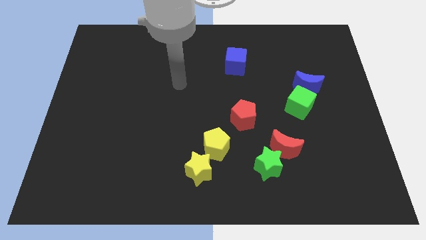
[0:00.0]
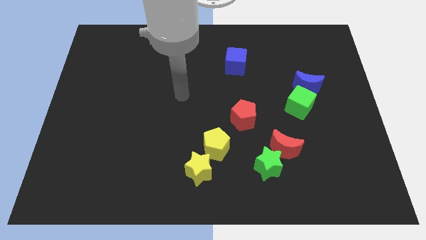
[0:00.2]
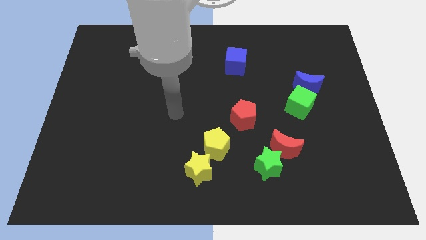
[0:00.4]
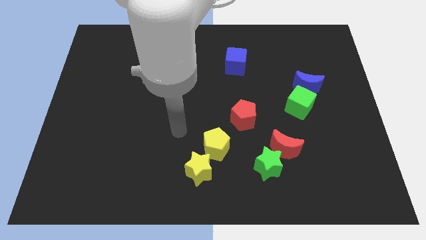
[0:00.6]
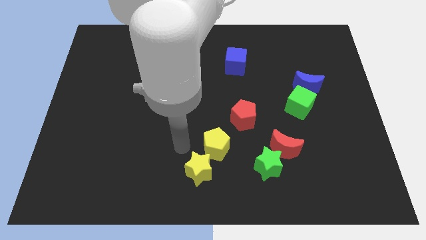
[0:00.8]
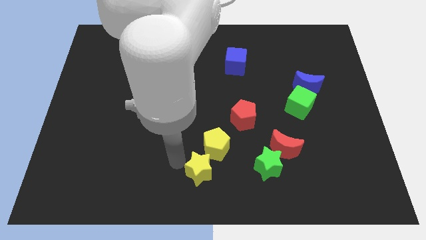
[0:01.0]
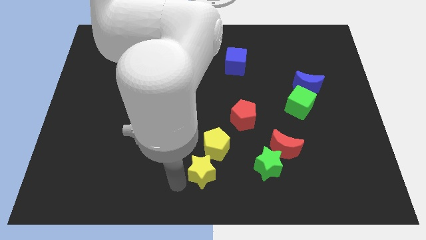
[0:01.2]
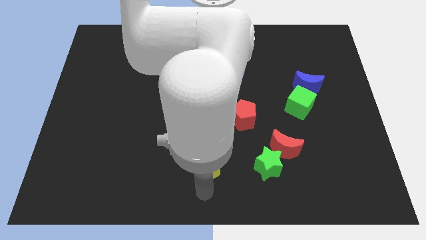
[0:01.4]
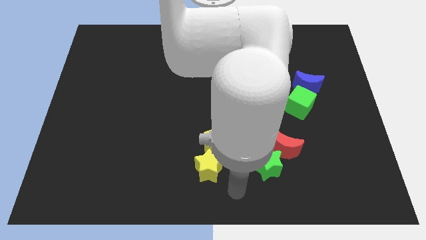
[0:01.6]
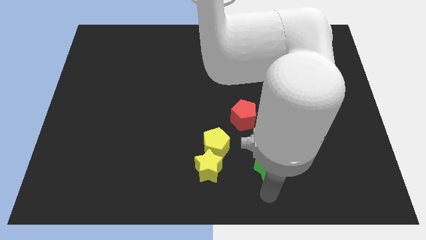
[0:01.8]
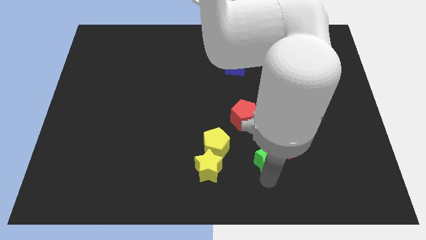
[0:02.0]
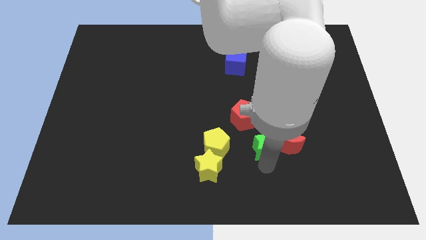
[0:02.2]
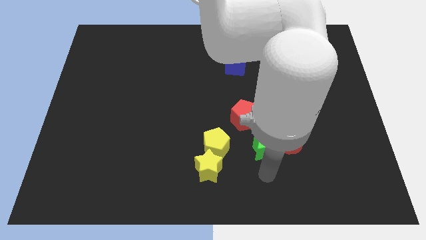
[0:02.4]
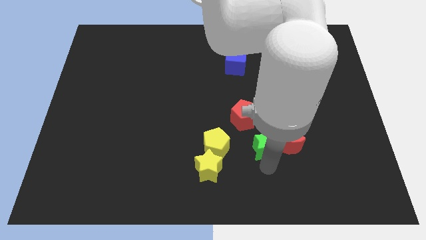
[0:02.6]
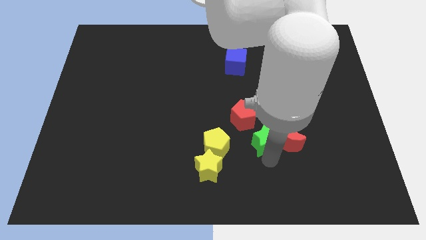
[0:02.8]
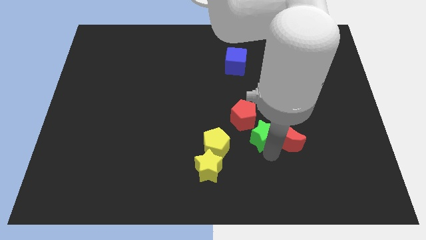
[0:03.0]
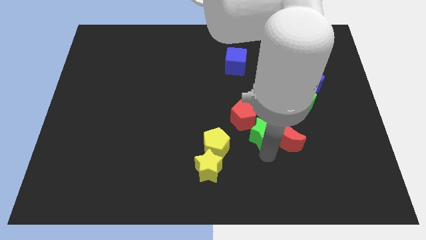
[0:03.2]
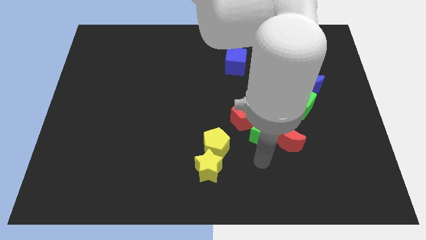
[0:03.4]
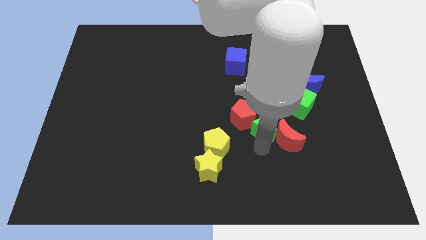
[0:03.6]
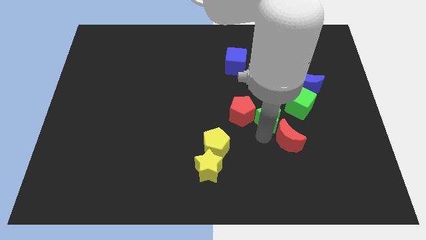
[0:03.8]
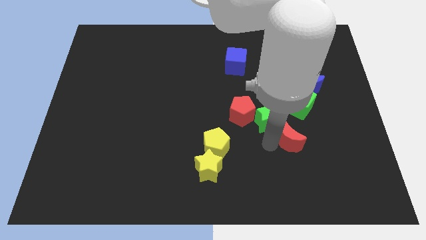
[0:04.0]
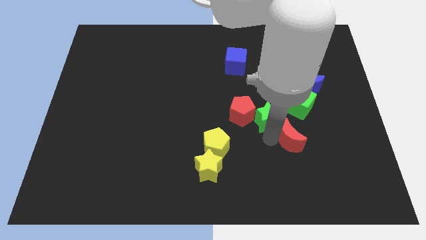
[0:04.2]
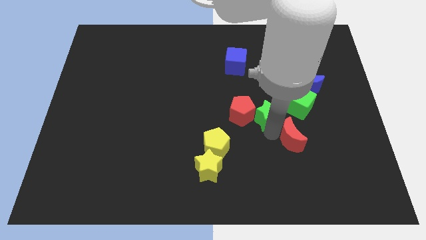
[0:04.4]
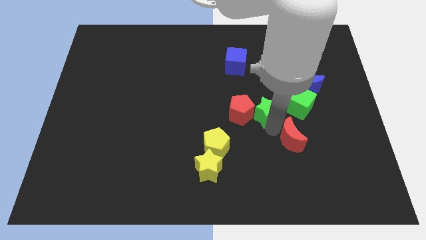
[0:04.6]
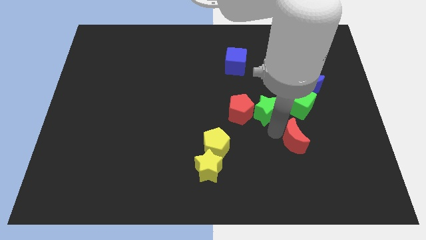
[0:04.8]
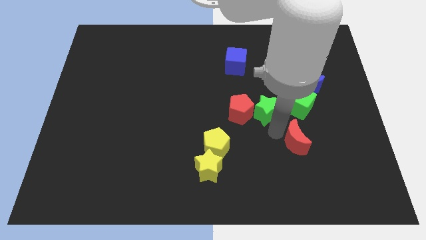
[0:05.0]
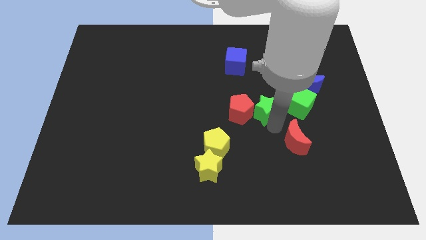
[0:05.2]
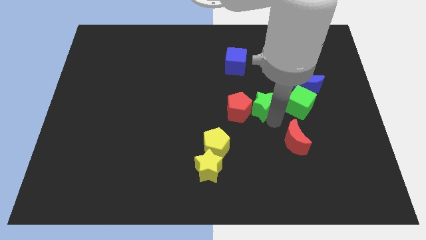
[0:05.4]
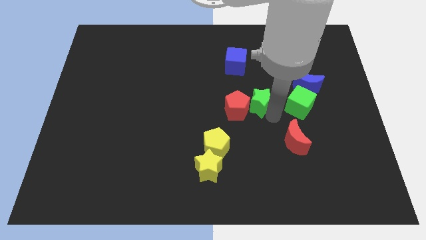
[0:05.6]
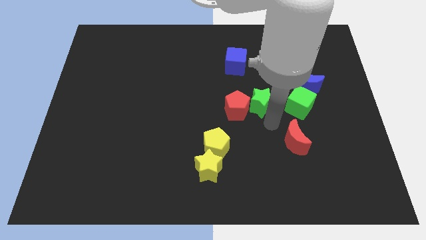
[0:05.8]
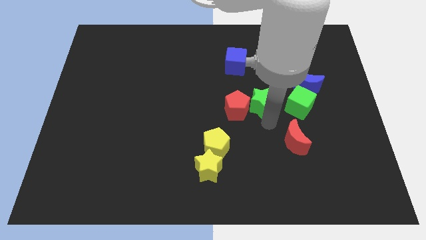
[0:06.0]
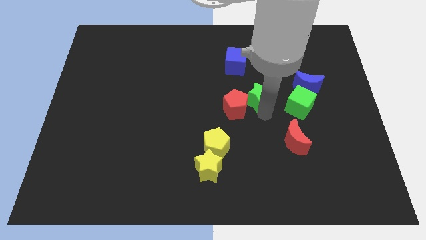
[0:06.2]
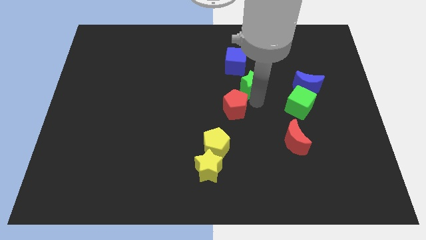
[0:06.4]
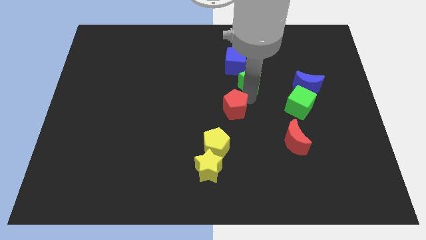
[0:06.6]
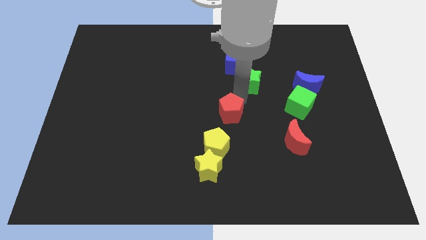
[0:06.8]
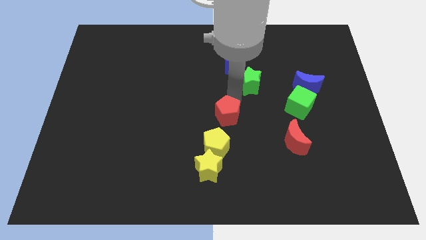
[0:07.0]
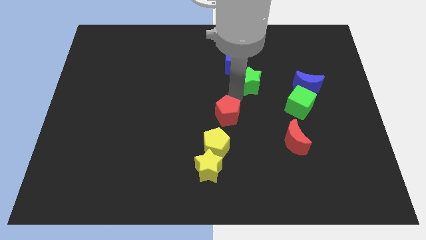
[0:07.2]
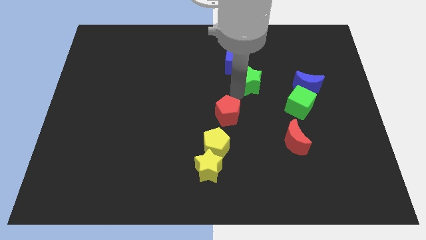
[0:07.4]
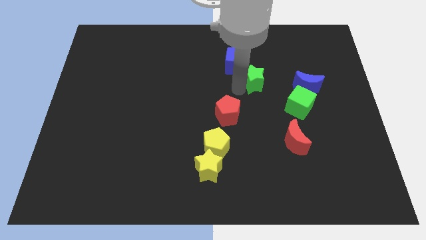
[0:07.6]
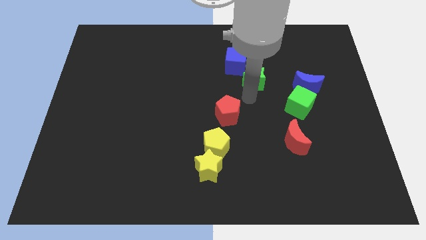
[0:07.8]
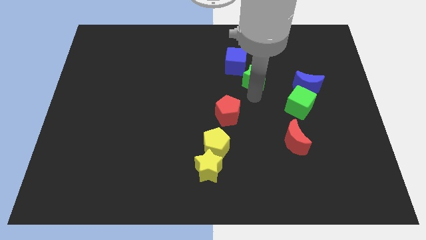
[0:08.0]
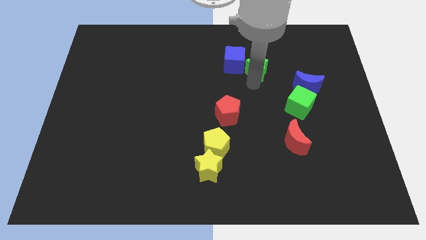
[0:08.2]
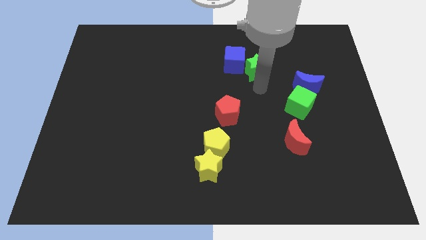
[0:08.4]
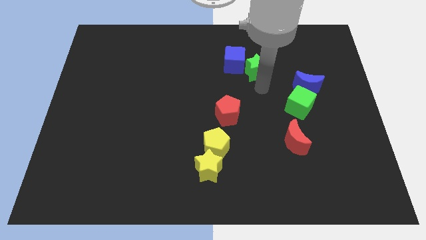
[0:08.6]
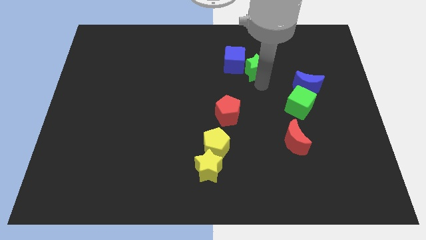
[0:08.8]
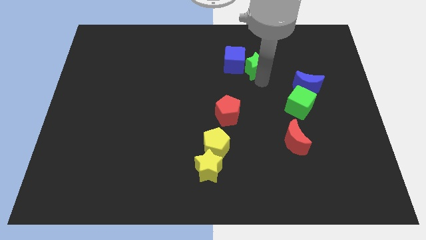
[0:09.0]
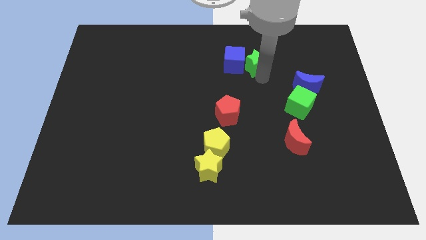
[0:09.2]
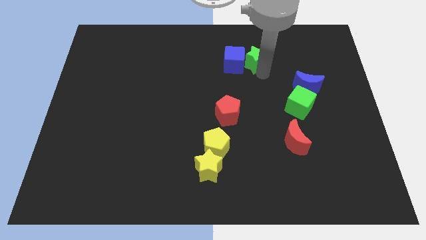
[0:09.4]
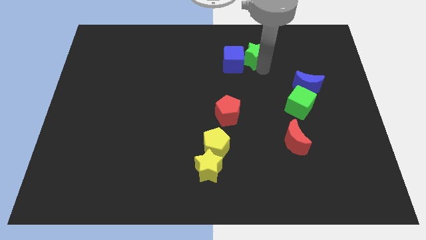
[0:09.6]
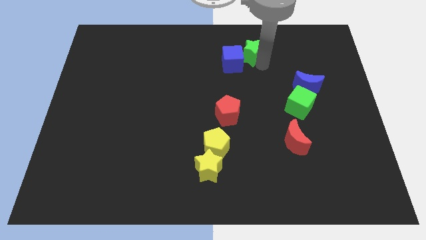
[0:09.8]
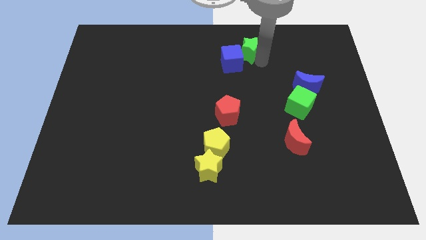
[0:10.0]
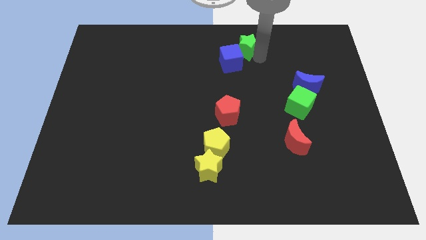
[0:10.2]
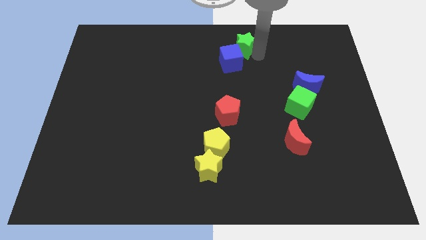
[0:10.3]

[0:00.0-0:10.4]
push the green star to the top side

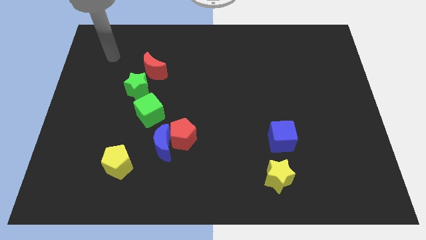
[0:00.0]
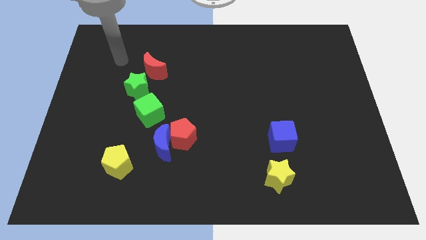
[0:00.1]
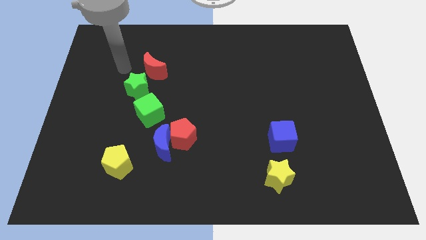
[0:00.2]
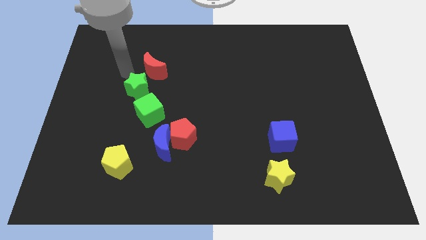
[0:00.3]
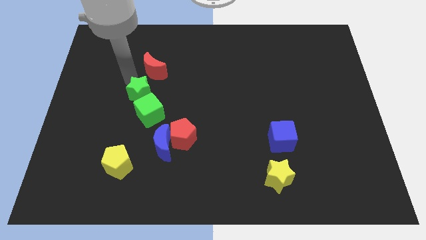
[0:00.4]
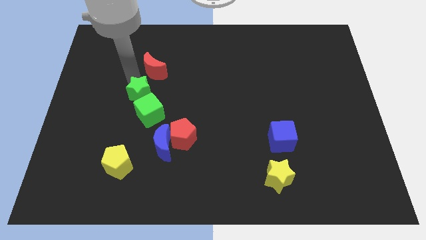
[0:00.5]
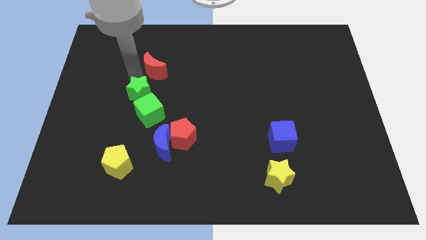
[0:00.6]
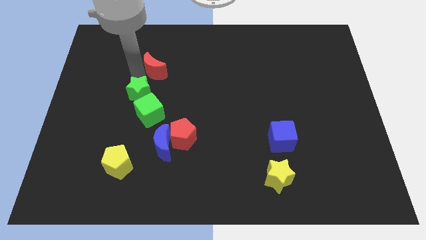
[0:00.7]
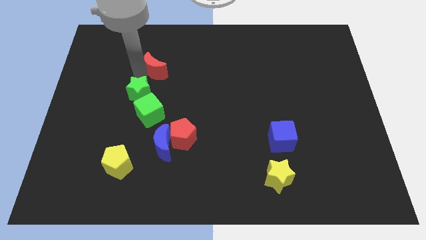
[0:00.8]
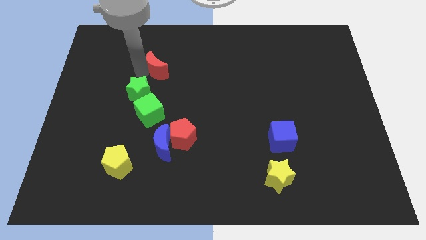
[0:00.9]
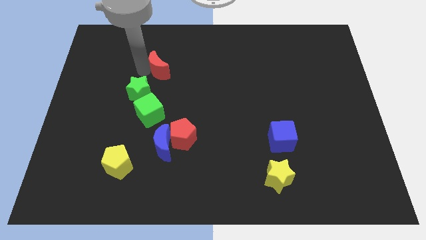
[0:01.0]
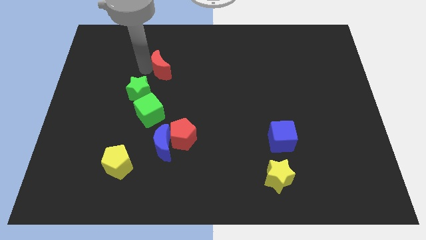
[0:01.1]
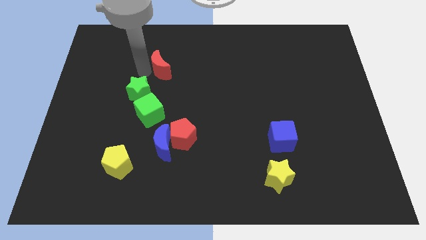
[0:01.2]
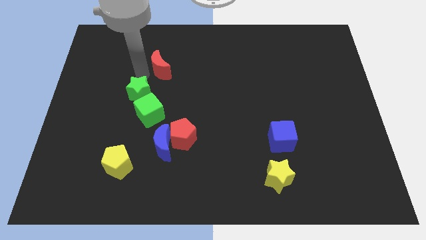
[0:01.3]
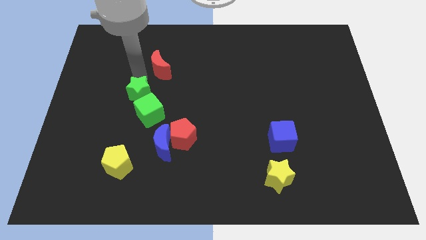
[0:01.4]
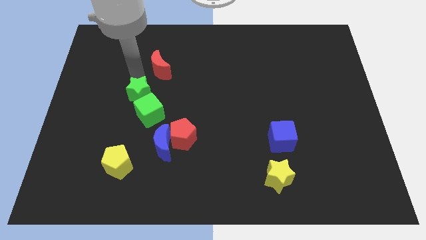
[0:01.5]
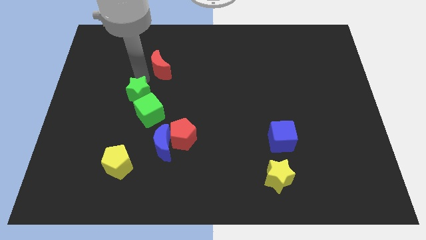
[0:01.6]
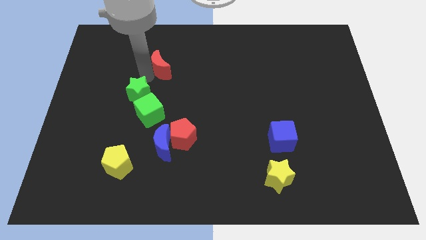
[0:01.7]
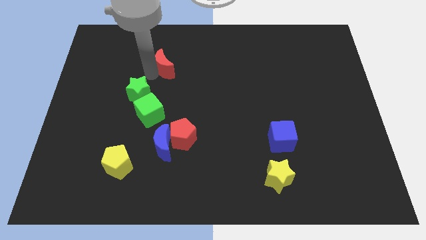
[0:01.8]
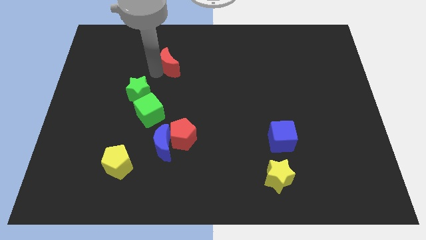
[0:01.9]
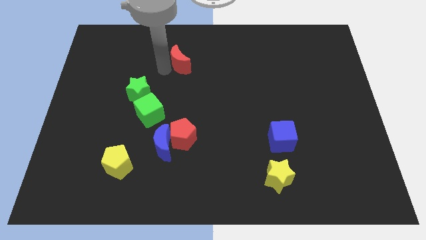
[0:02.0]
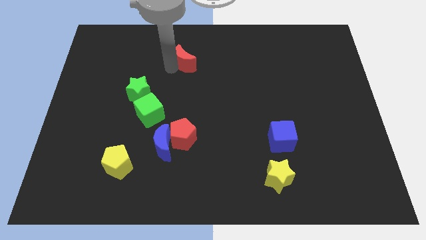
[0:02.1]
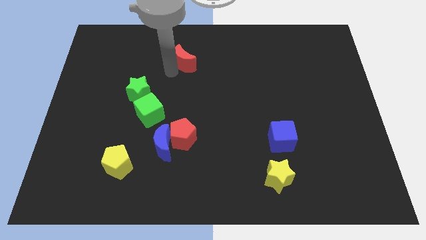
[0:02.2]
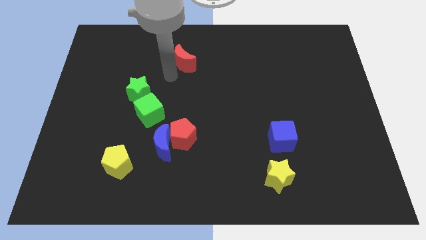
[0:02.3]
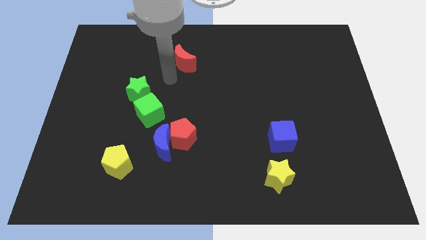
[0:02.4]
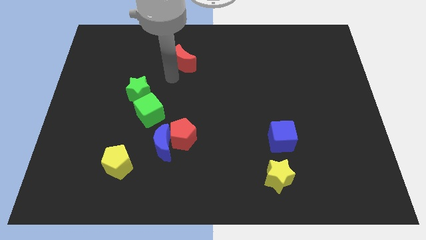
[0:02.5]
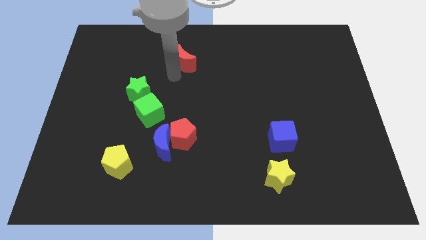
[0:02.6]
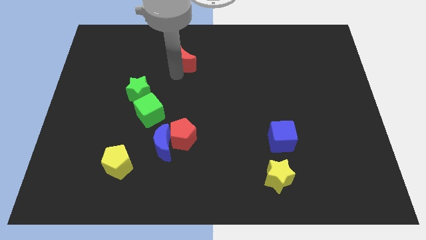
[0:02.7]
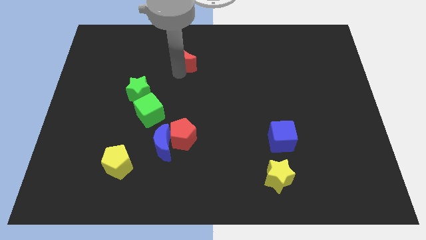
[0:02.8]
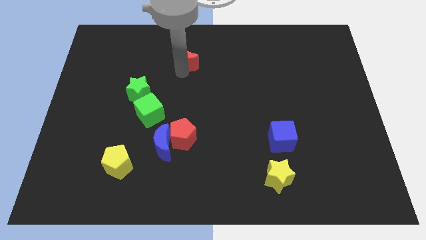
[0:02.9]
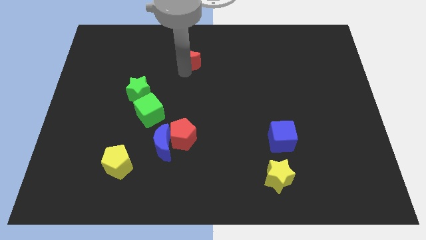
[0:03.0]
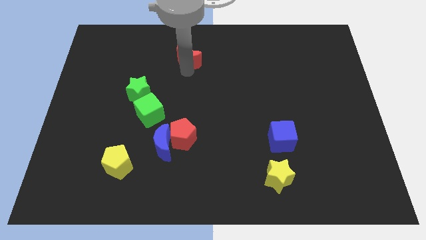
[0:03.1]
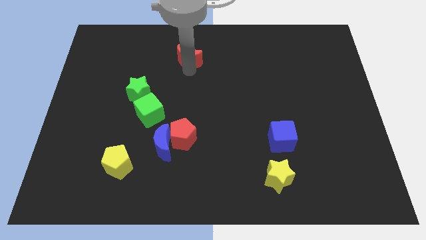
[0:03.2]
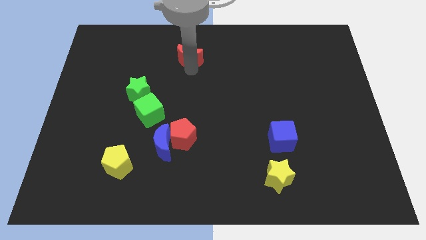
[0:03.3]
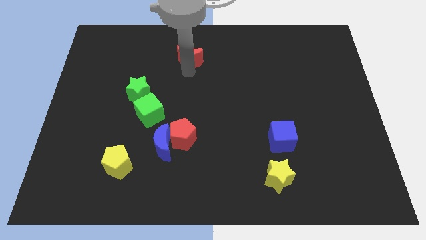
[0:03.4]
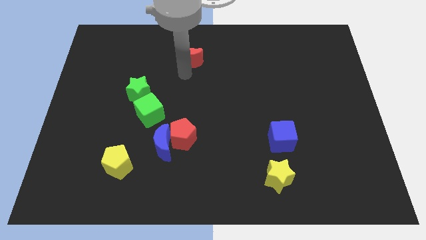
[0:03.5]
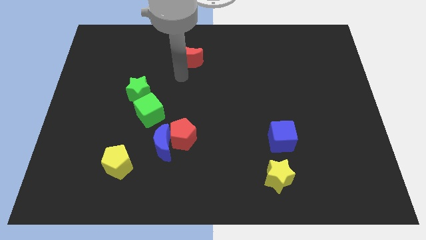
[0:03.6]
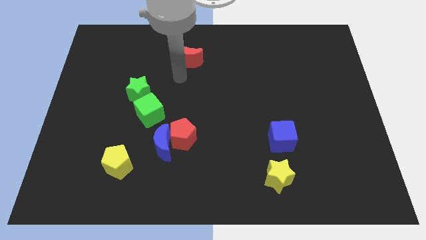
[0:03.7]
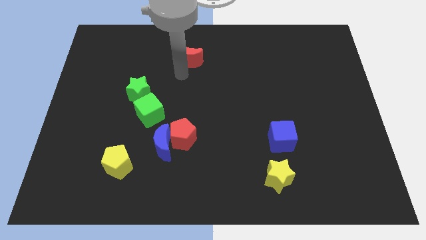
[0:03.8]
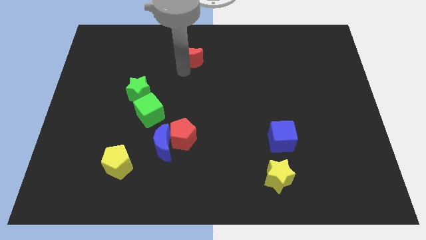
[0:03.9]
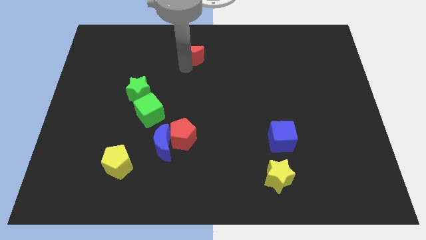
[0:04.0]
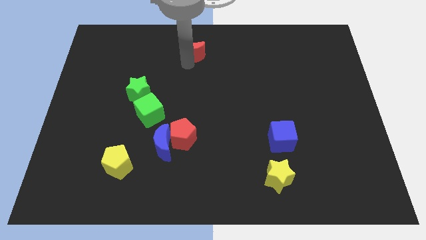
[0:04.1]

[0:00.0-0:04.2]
slide the red moon to the towards your base
